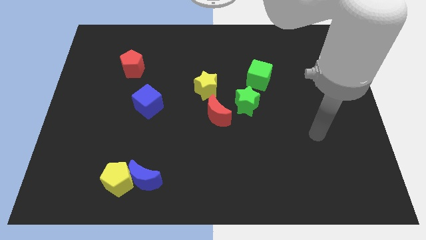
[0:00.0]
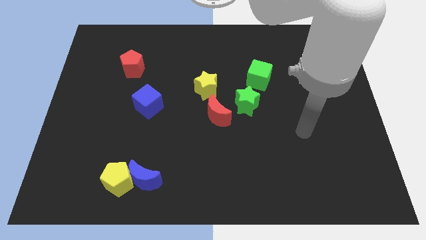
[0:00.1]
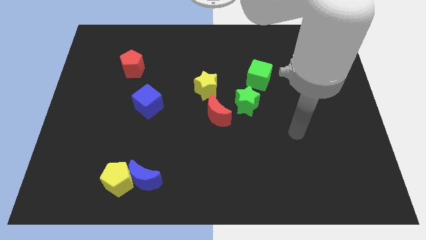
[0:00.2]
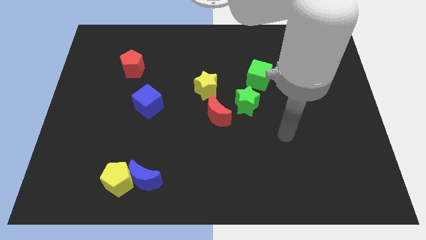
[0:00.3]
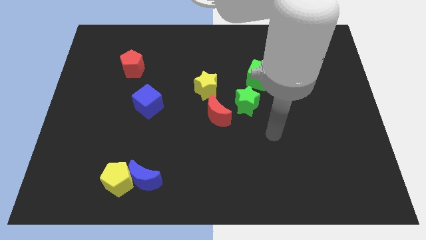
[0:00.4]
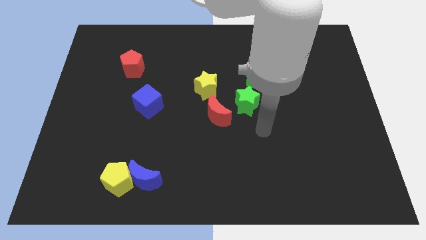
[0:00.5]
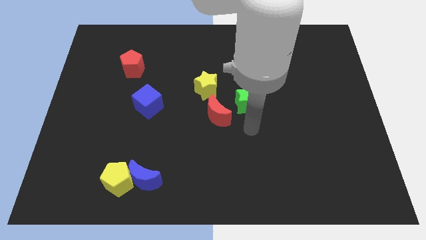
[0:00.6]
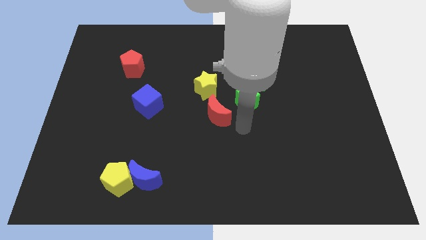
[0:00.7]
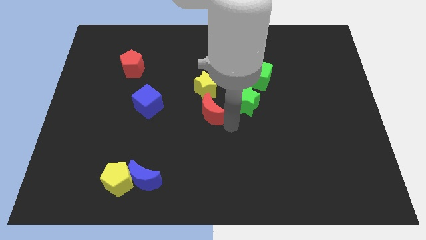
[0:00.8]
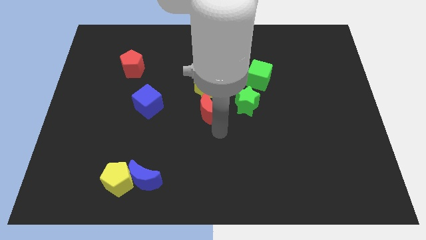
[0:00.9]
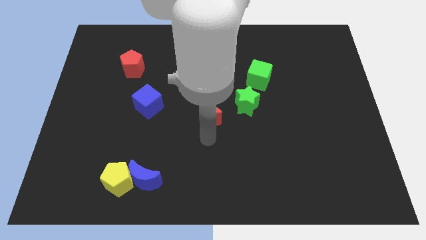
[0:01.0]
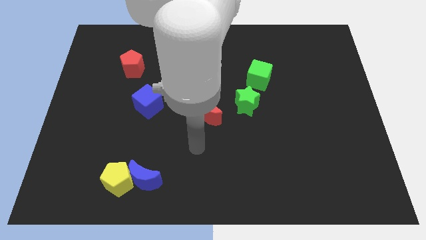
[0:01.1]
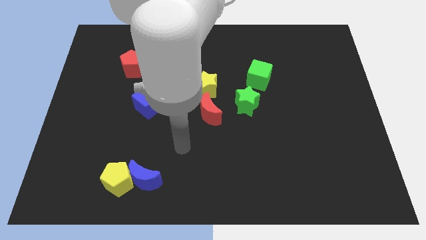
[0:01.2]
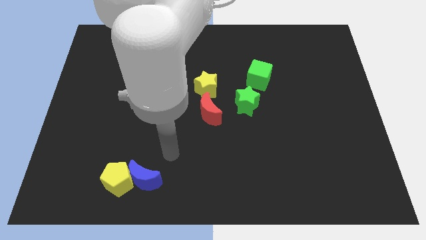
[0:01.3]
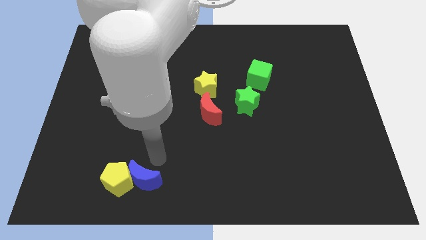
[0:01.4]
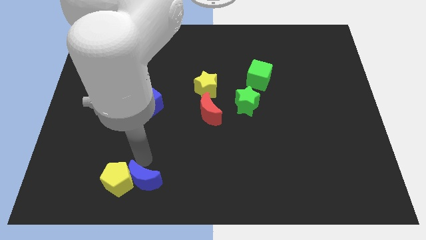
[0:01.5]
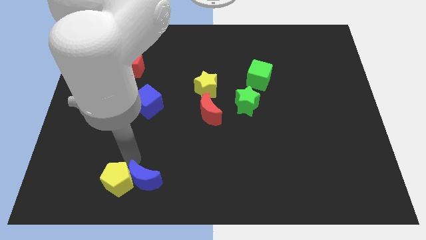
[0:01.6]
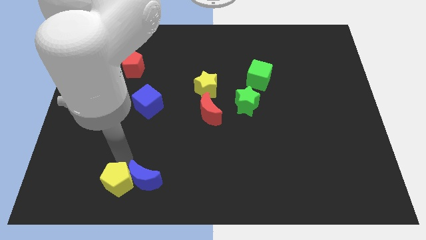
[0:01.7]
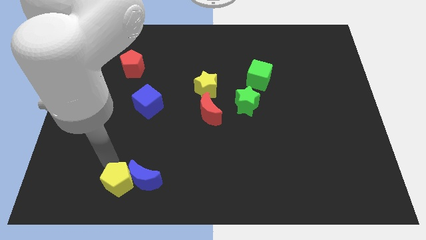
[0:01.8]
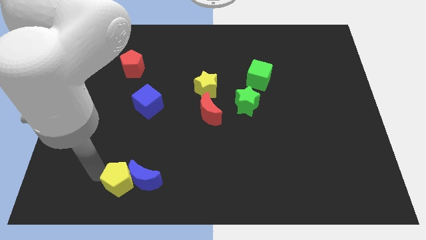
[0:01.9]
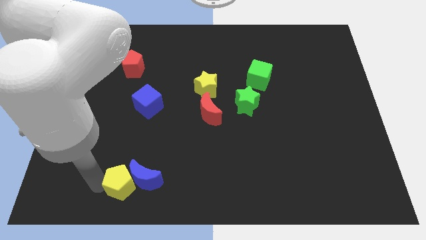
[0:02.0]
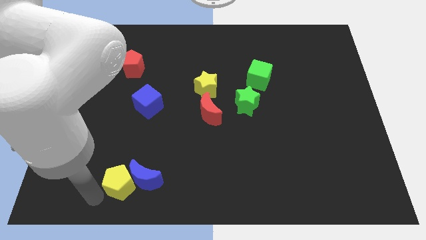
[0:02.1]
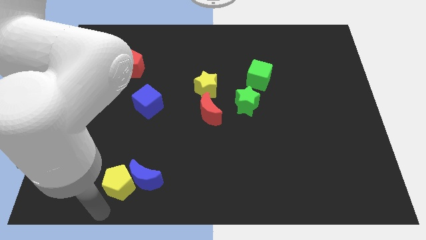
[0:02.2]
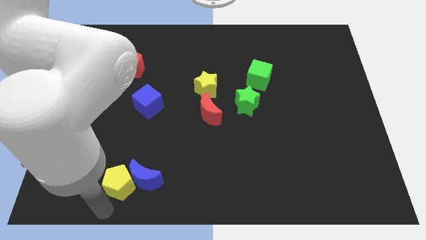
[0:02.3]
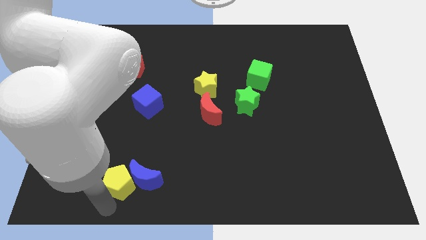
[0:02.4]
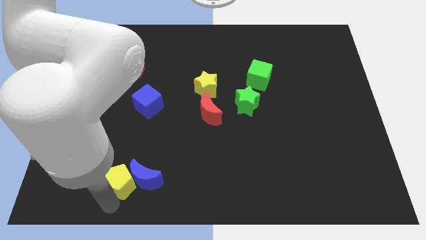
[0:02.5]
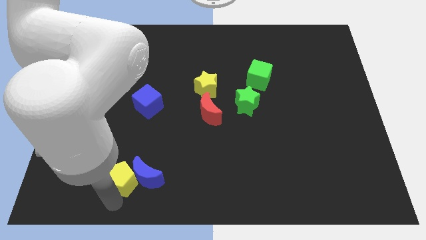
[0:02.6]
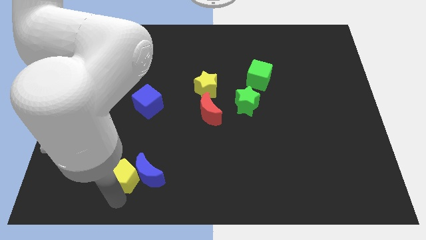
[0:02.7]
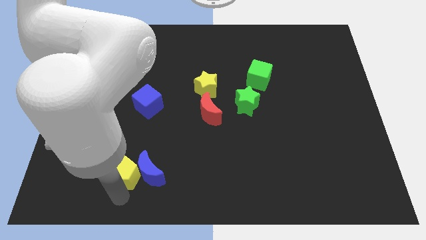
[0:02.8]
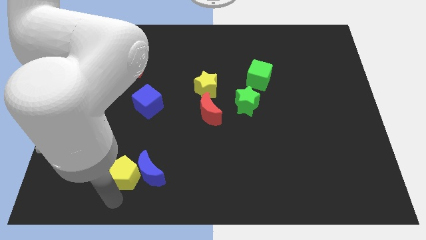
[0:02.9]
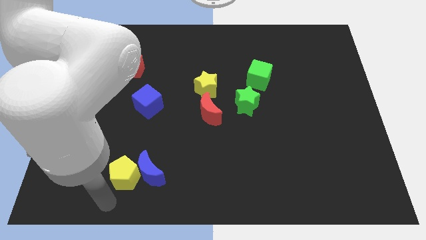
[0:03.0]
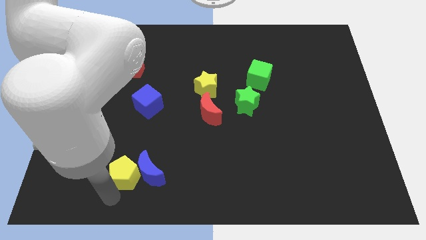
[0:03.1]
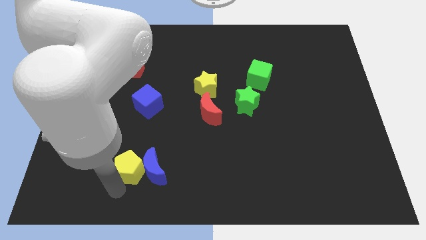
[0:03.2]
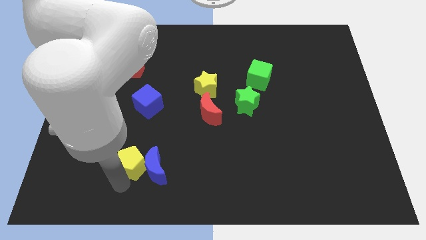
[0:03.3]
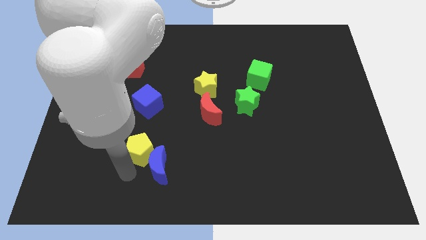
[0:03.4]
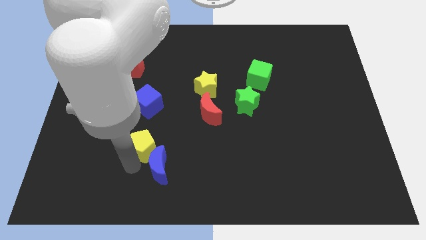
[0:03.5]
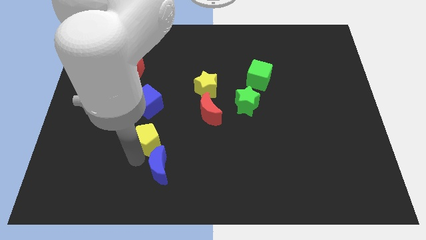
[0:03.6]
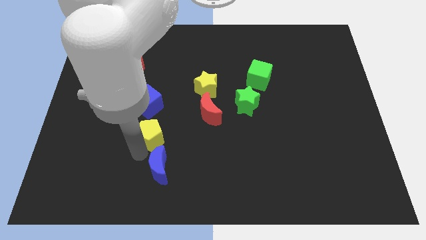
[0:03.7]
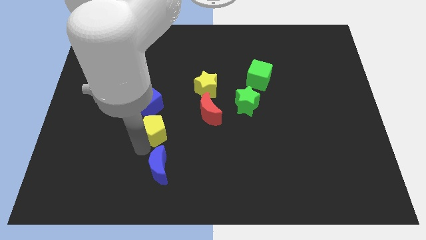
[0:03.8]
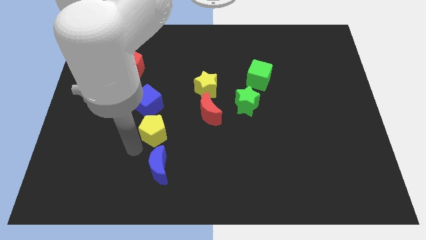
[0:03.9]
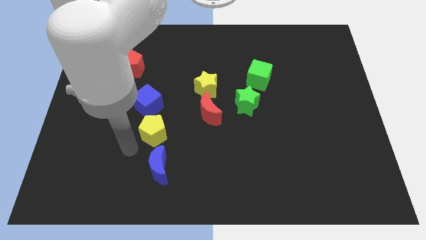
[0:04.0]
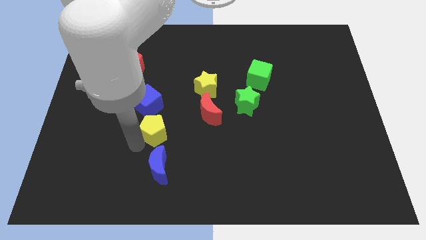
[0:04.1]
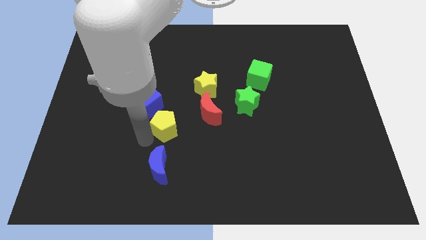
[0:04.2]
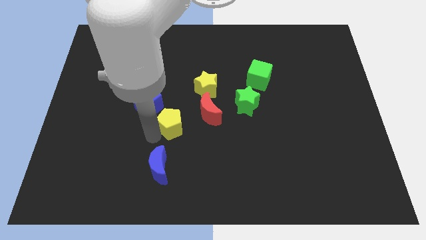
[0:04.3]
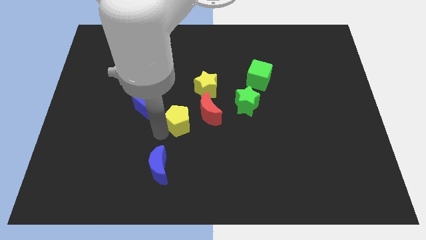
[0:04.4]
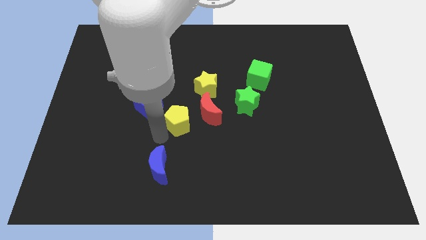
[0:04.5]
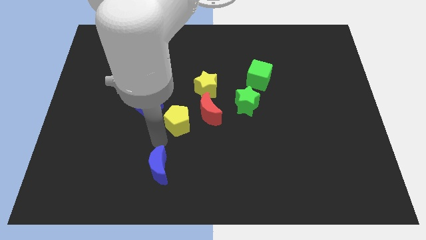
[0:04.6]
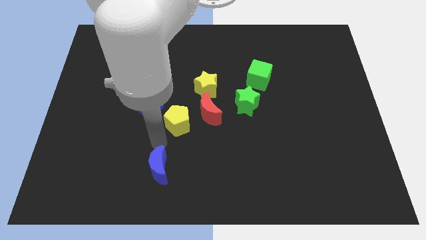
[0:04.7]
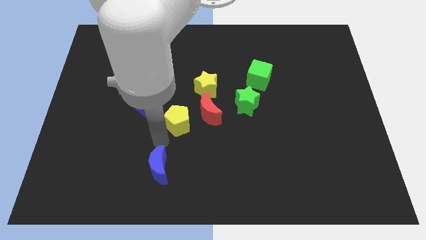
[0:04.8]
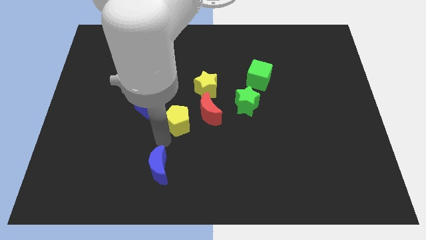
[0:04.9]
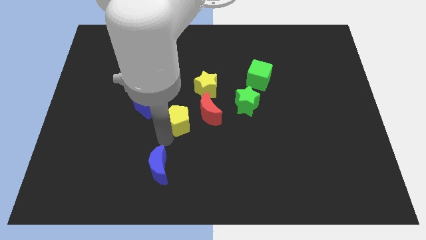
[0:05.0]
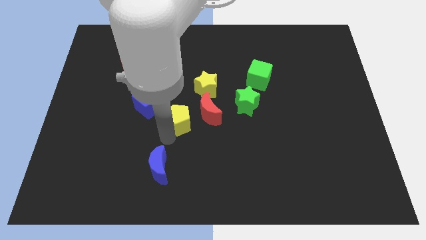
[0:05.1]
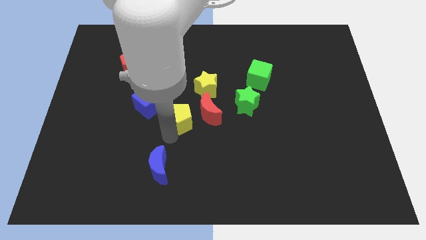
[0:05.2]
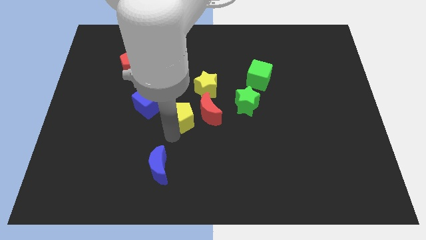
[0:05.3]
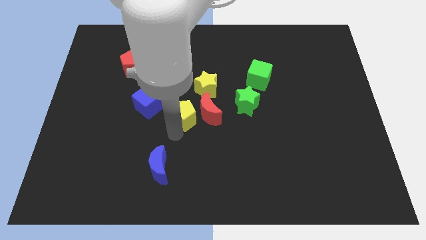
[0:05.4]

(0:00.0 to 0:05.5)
slide the yellow pentagon to the top left side of the red moon

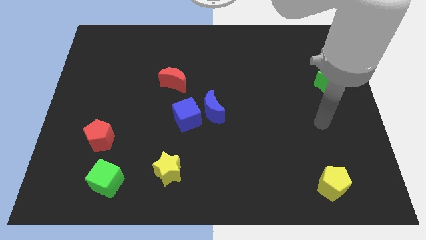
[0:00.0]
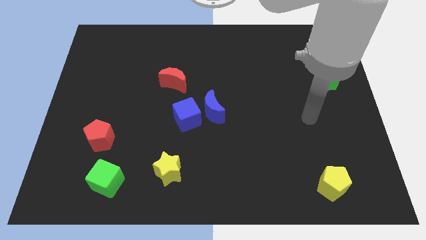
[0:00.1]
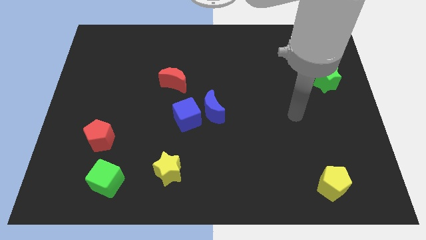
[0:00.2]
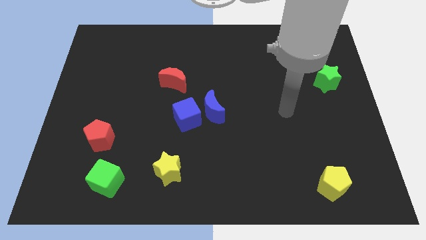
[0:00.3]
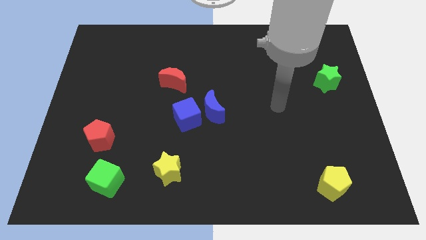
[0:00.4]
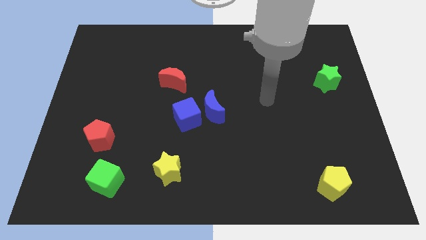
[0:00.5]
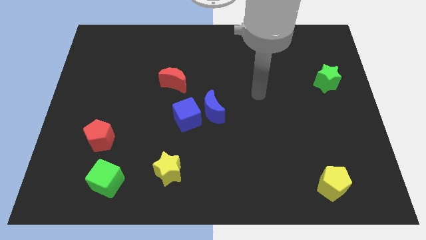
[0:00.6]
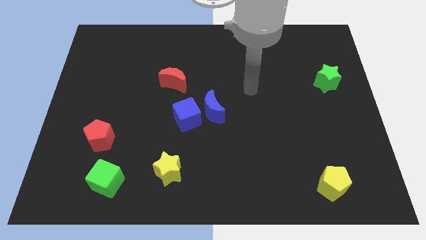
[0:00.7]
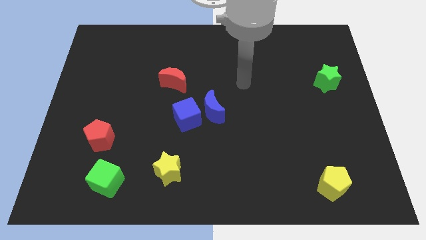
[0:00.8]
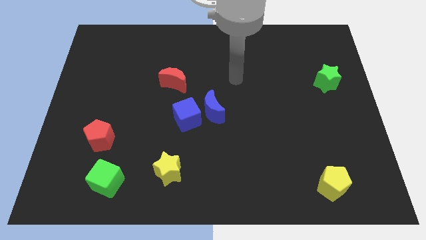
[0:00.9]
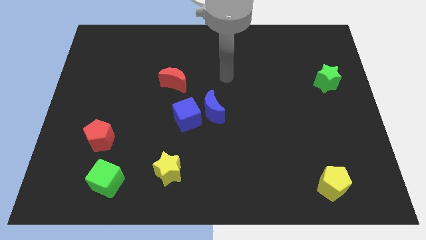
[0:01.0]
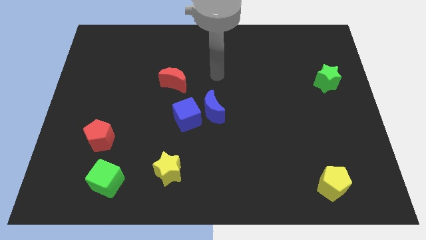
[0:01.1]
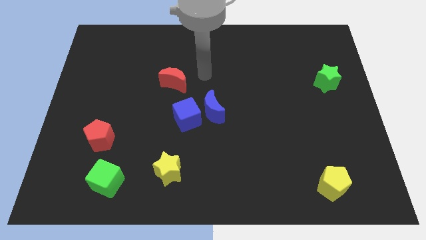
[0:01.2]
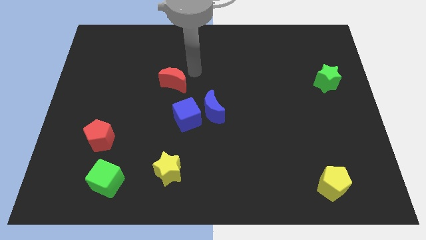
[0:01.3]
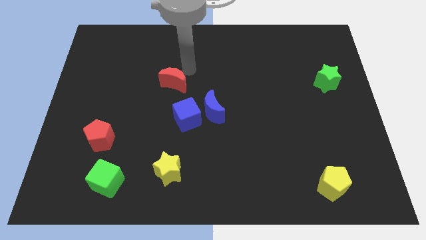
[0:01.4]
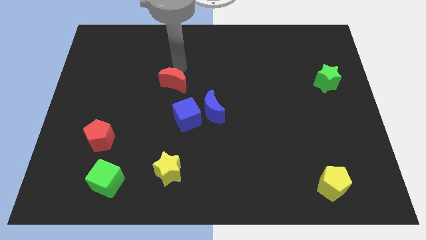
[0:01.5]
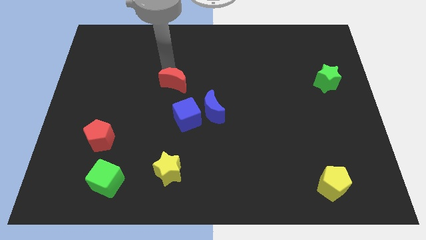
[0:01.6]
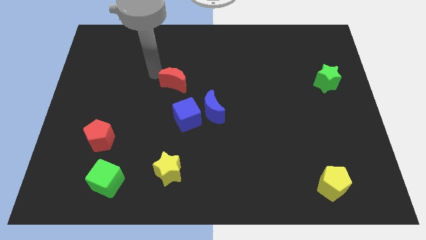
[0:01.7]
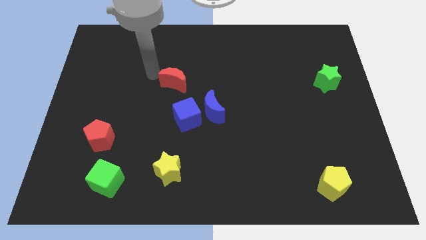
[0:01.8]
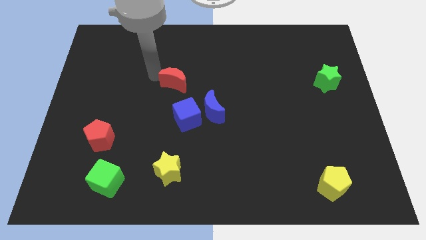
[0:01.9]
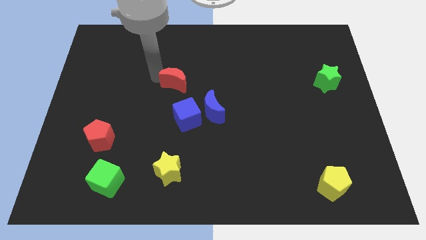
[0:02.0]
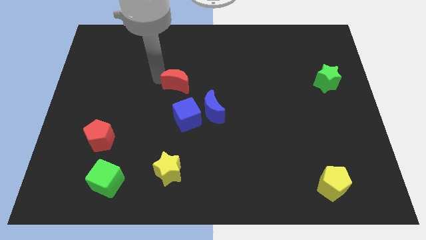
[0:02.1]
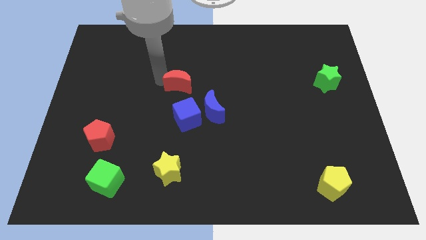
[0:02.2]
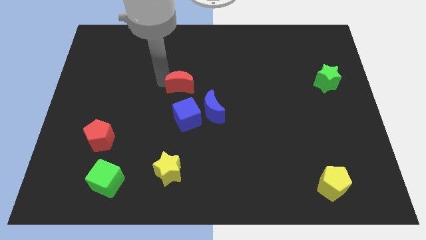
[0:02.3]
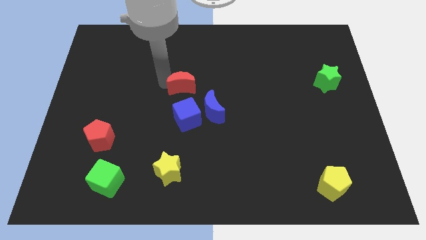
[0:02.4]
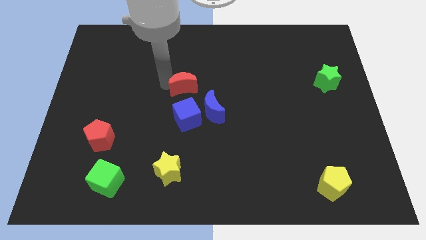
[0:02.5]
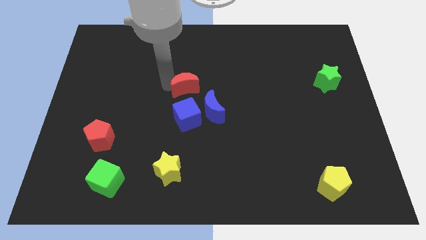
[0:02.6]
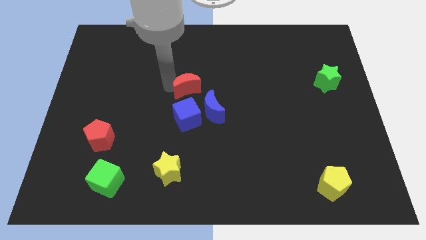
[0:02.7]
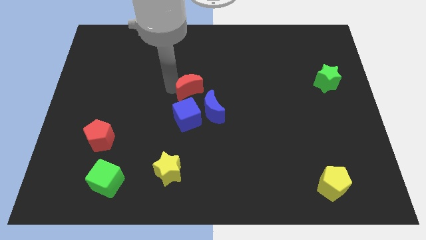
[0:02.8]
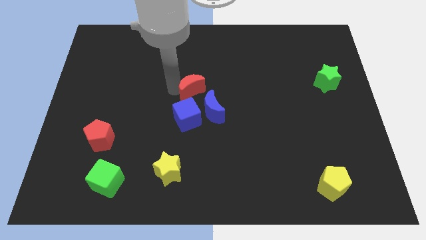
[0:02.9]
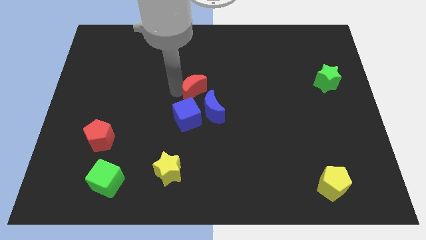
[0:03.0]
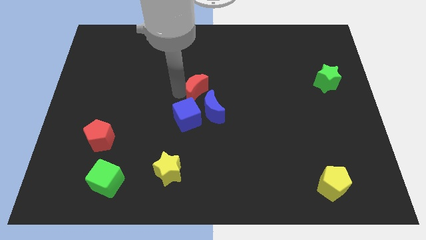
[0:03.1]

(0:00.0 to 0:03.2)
push the red moon to the top right of the blue cube
